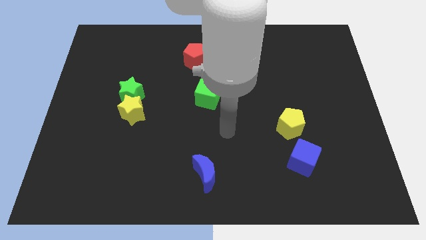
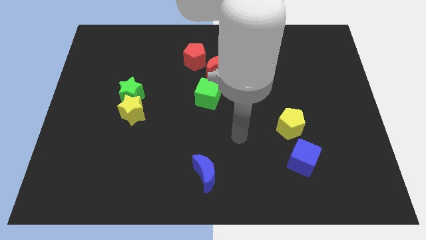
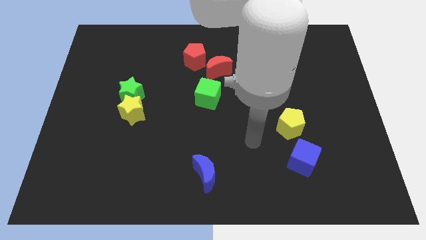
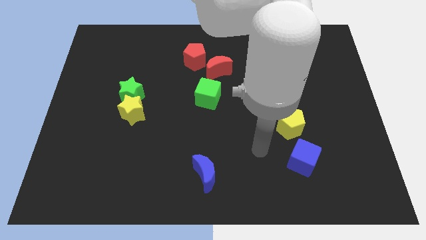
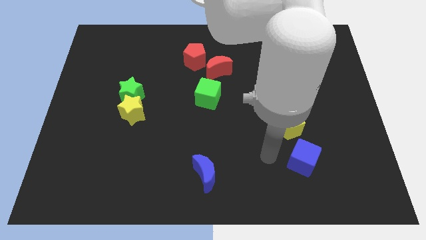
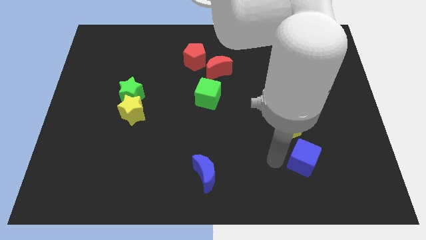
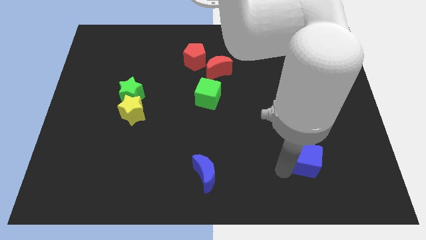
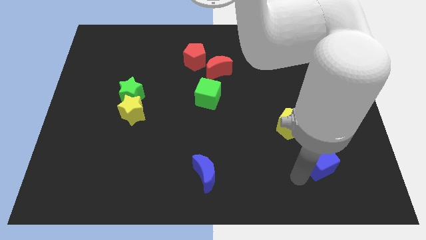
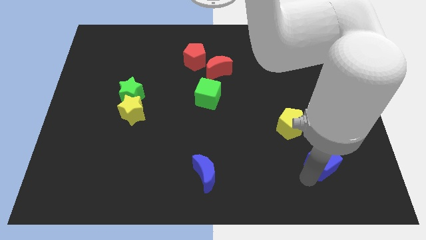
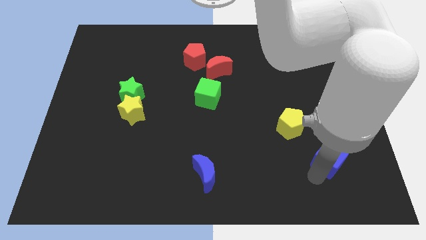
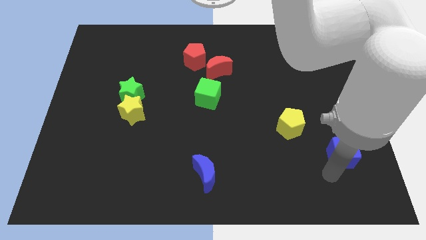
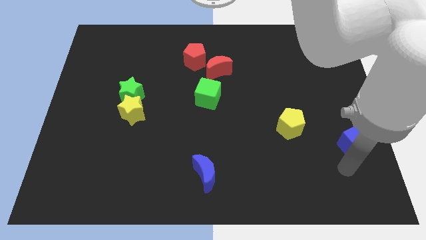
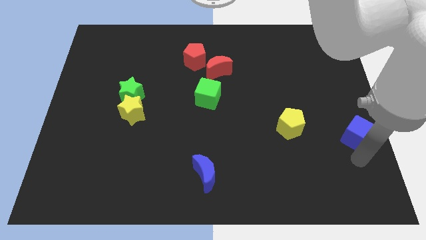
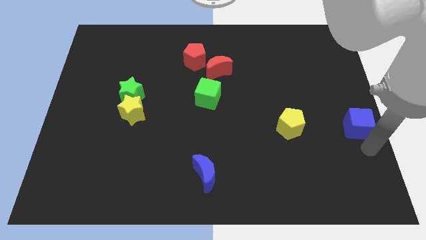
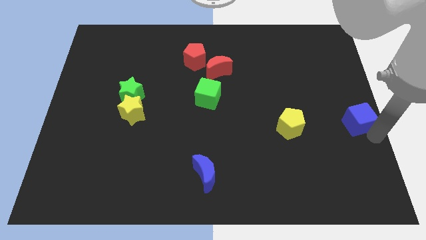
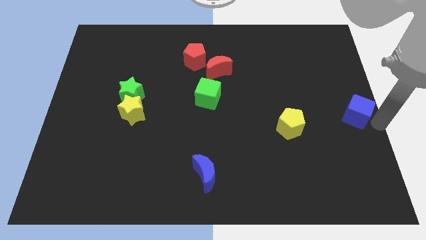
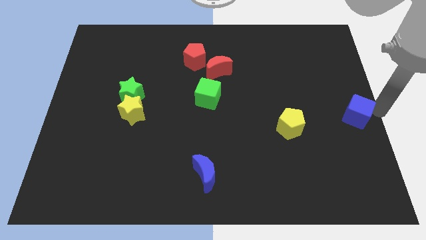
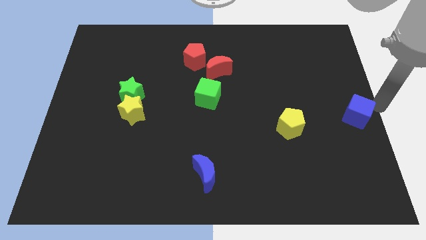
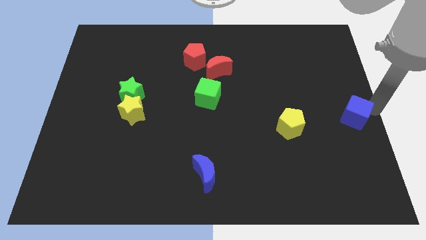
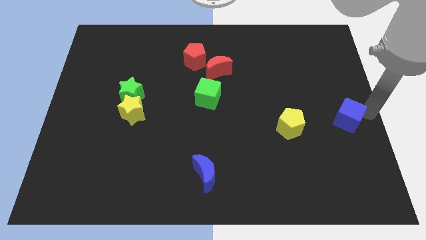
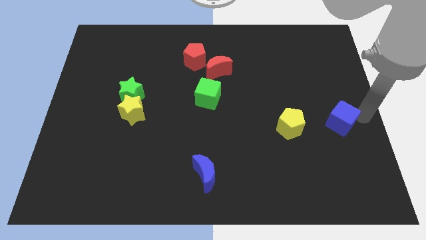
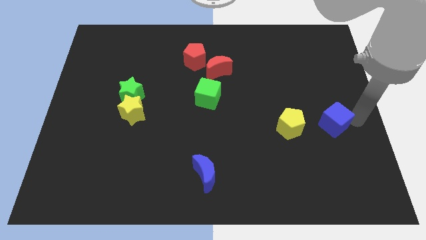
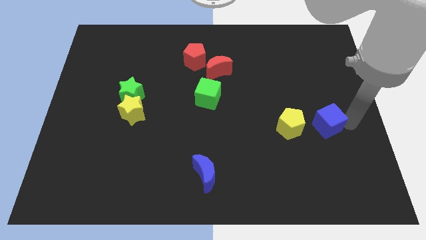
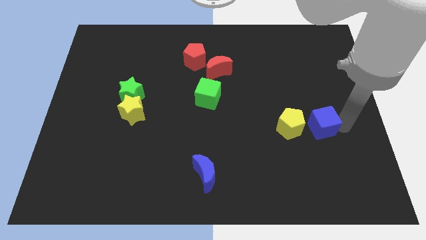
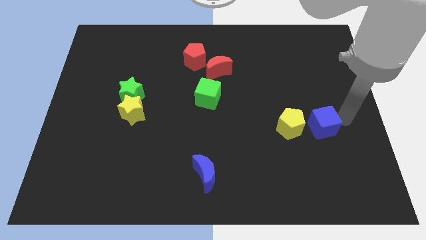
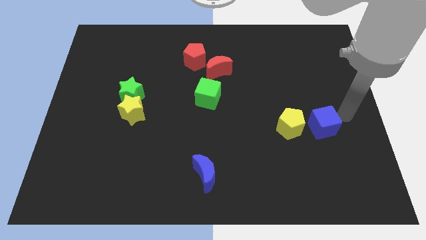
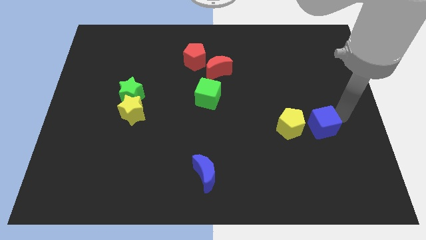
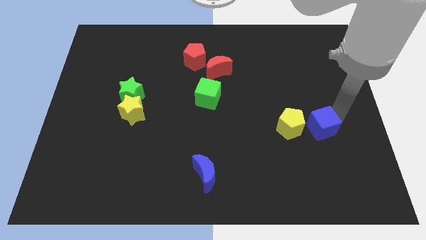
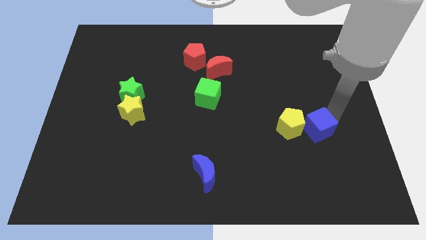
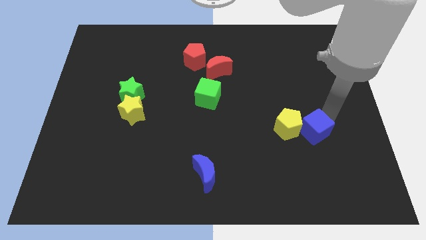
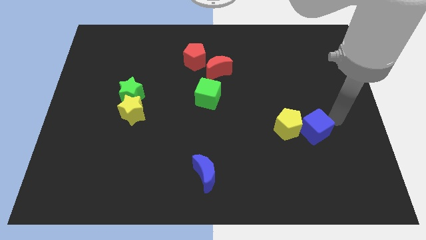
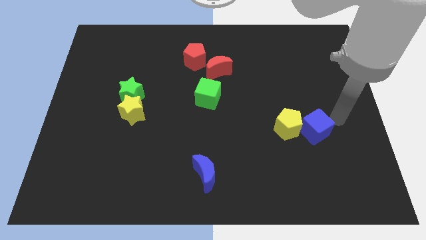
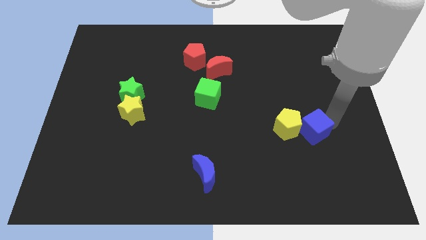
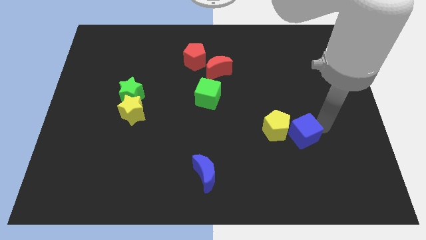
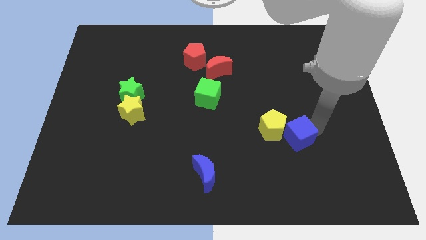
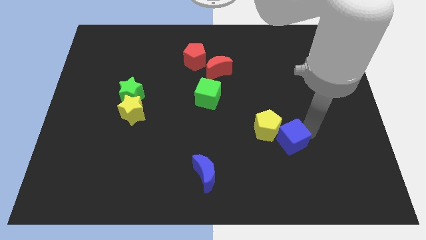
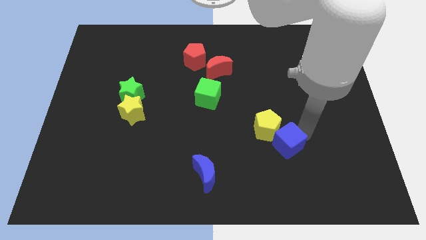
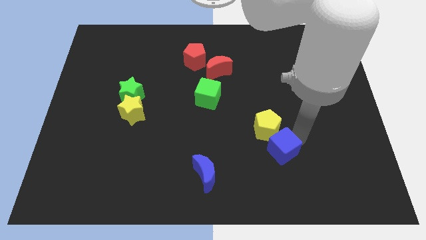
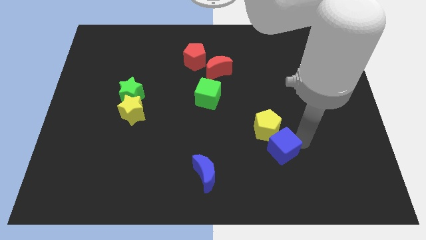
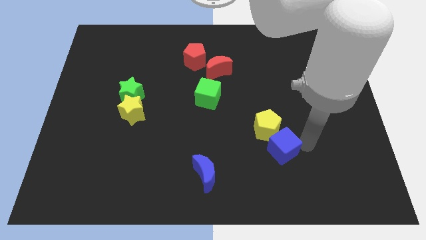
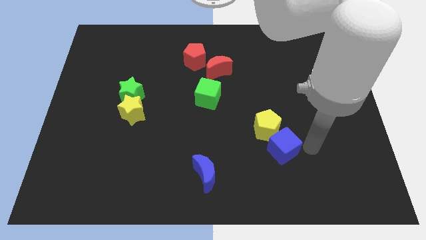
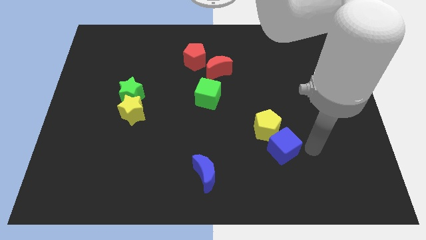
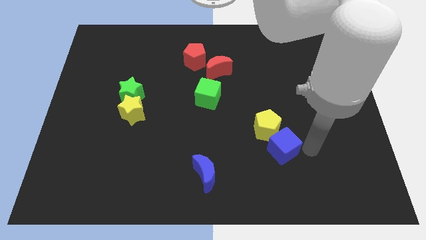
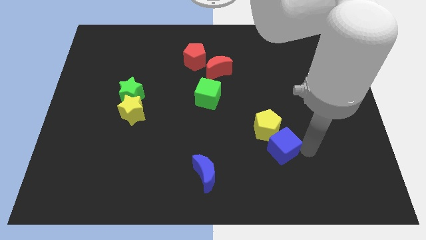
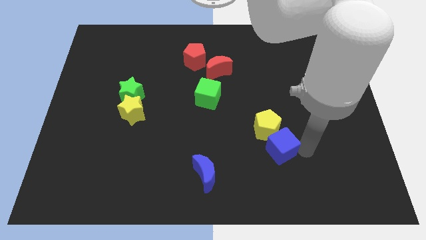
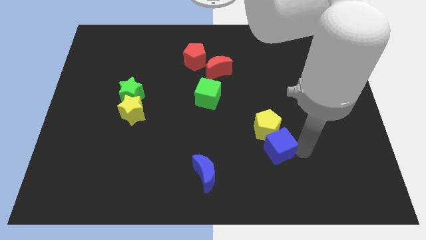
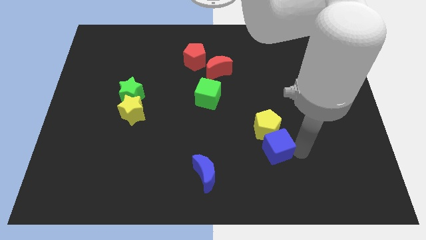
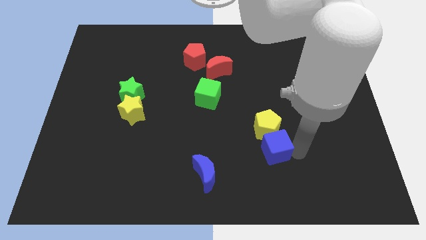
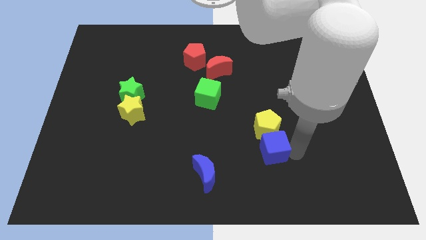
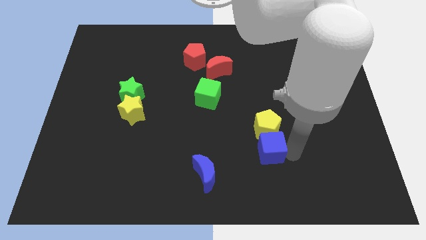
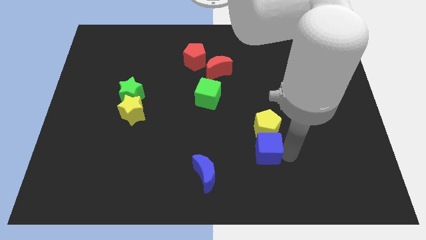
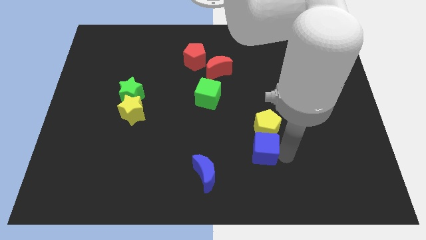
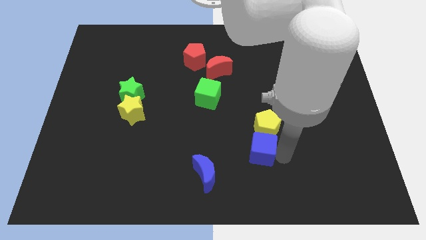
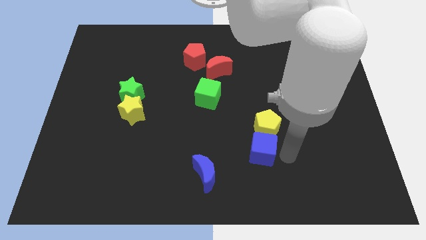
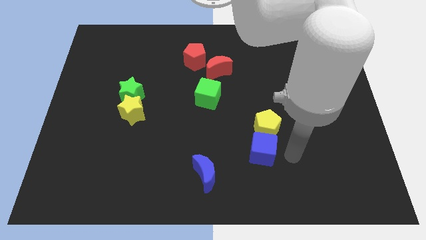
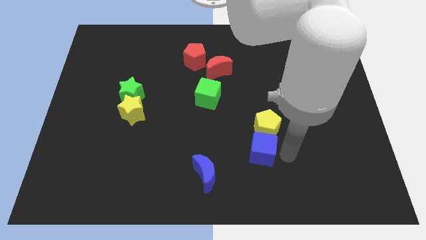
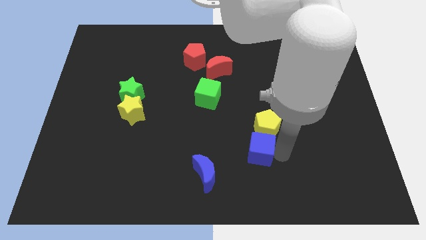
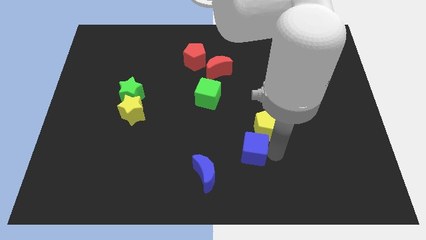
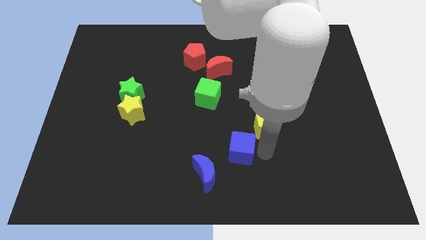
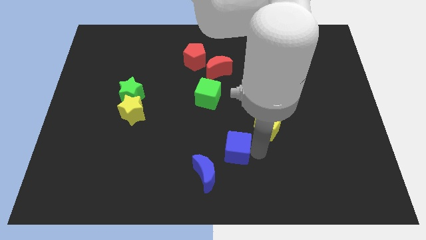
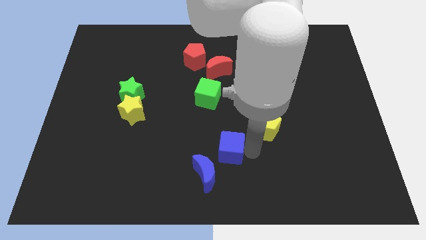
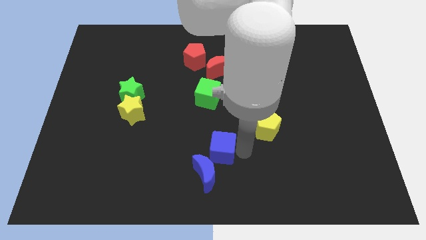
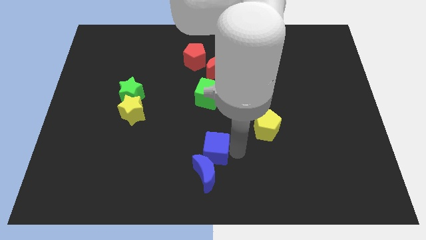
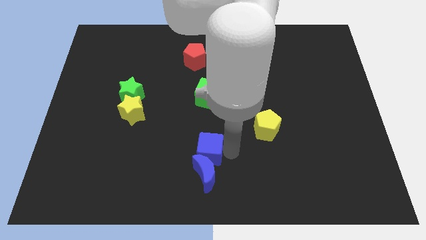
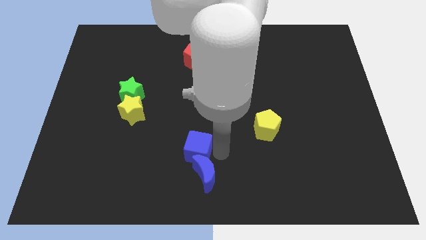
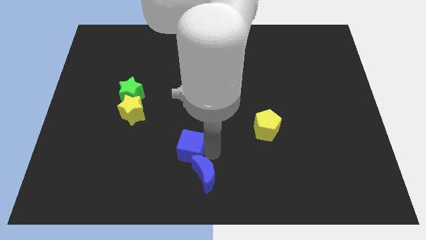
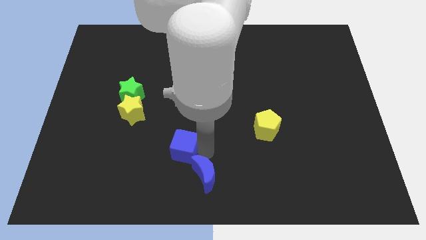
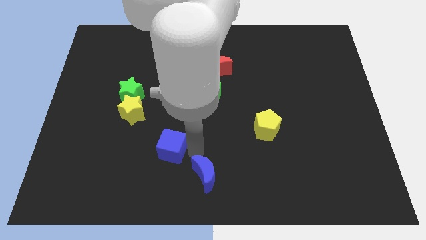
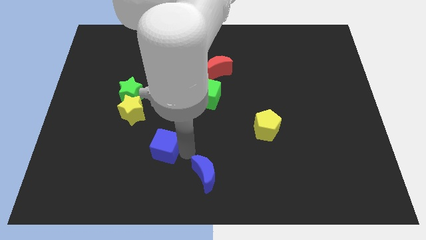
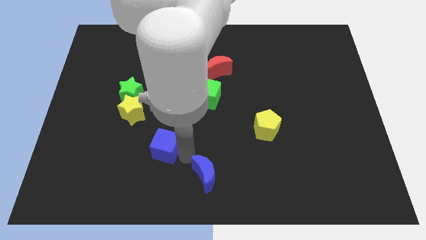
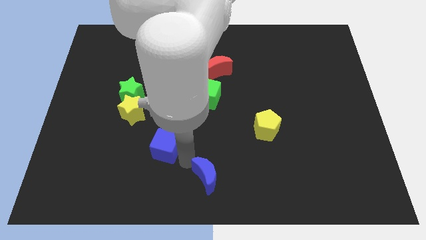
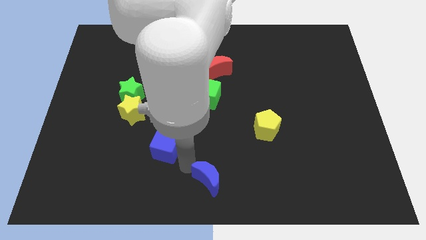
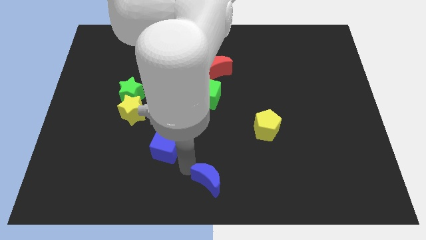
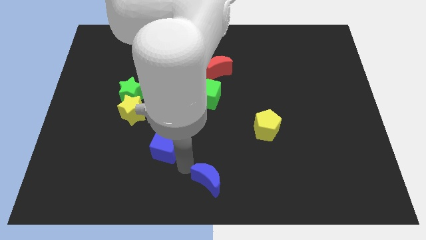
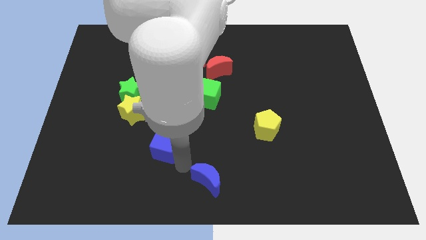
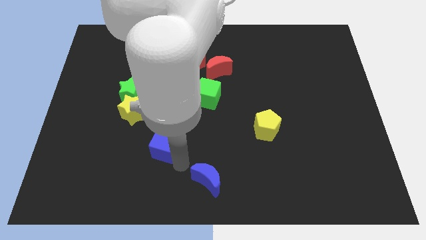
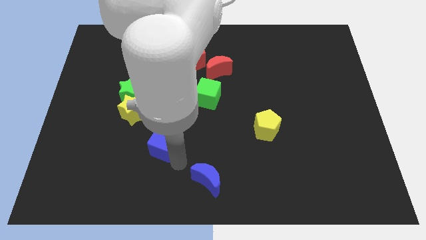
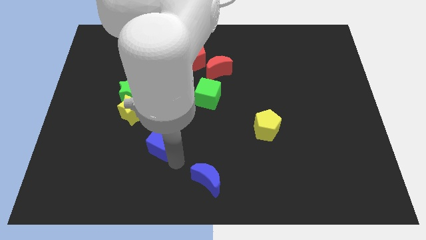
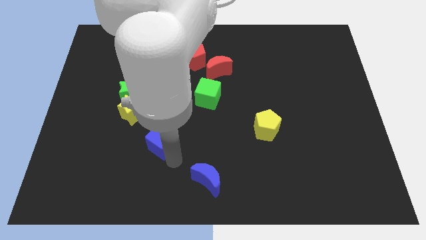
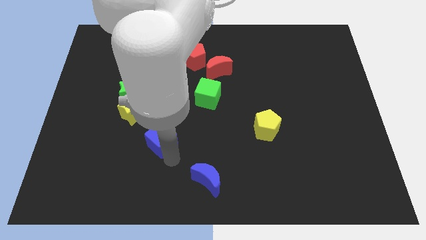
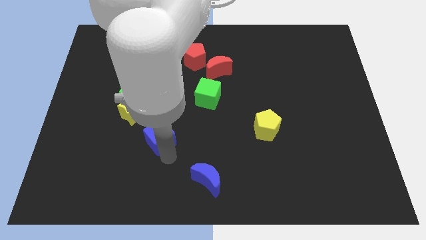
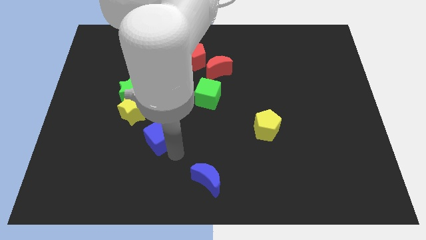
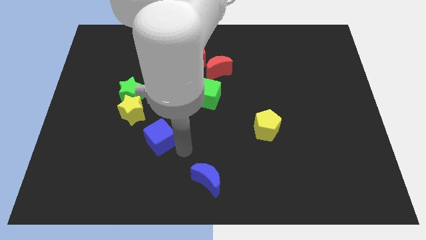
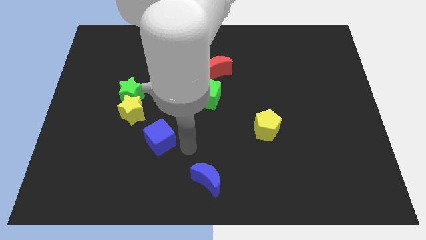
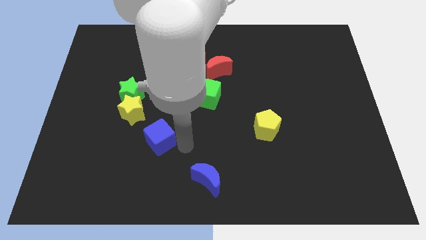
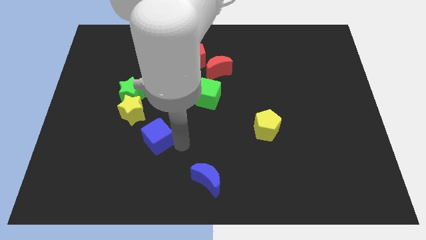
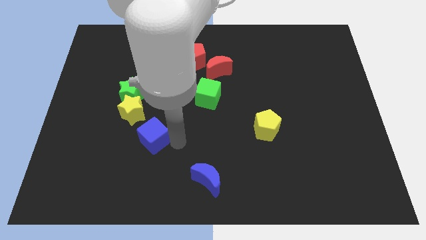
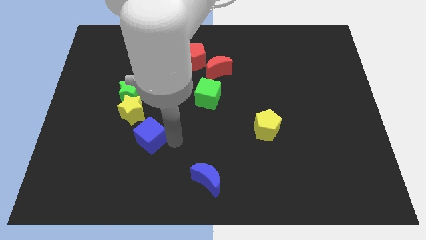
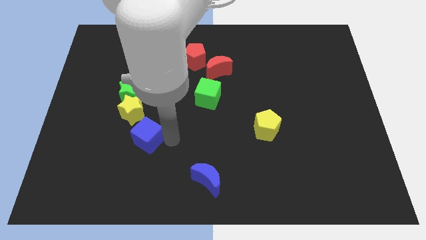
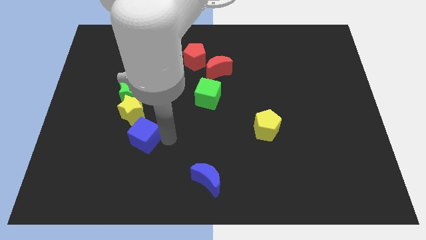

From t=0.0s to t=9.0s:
push the blue cube to the bottom of the green star
